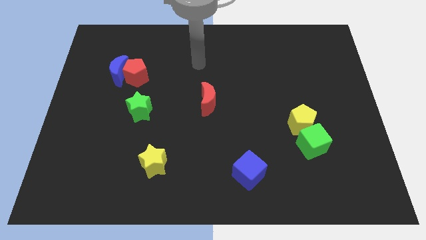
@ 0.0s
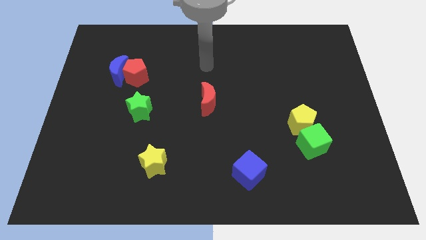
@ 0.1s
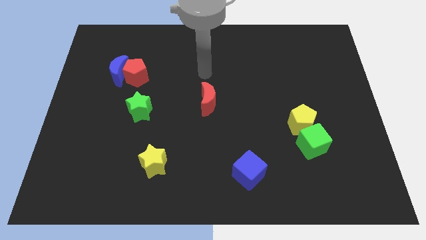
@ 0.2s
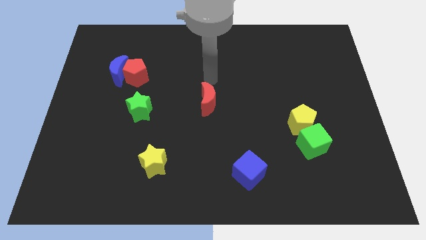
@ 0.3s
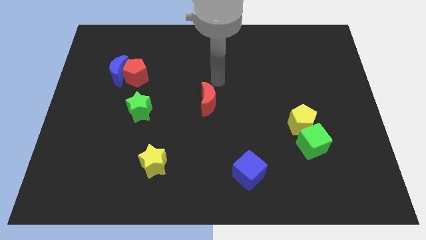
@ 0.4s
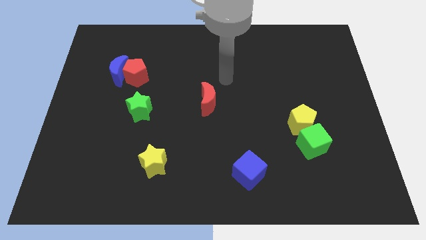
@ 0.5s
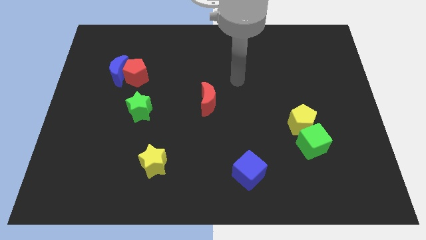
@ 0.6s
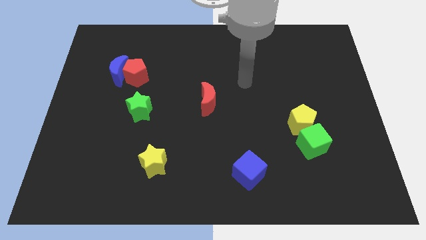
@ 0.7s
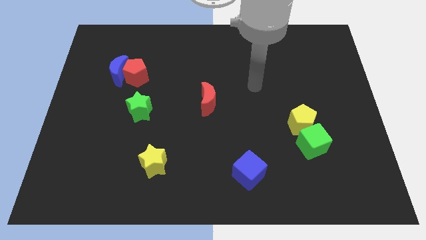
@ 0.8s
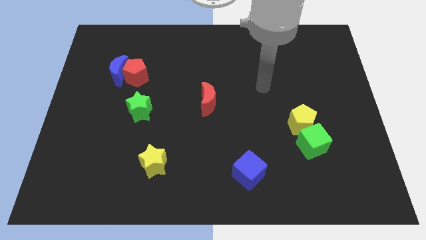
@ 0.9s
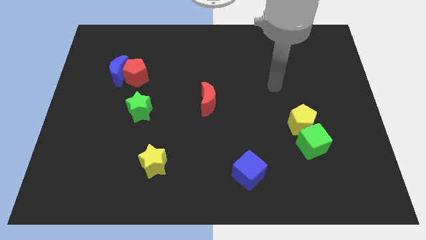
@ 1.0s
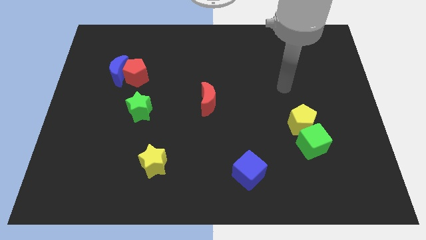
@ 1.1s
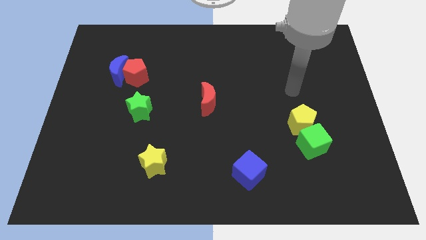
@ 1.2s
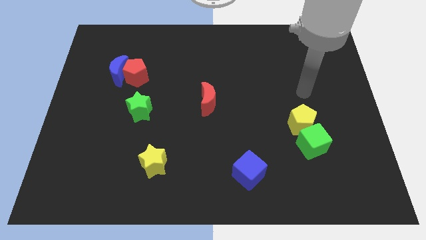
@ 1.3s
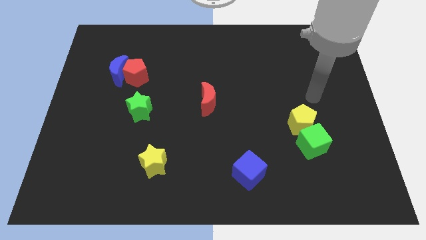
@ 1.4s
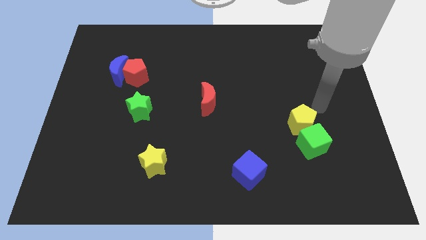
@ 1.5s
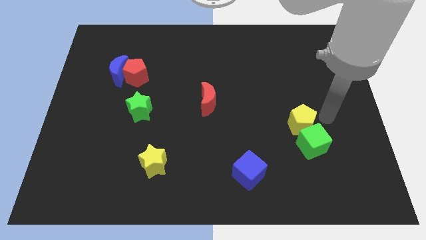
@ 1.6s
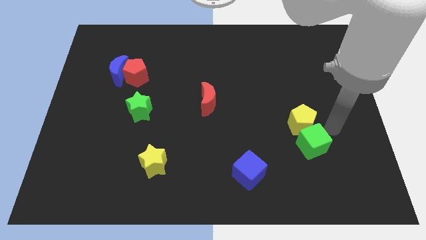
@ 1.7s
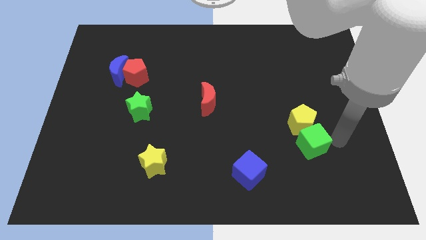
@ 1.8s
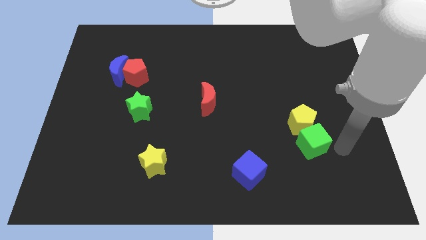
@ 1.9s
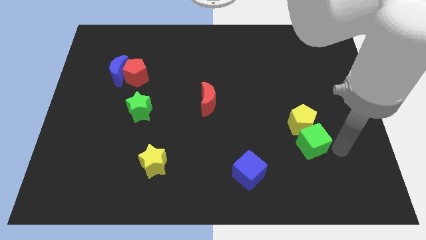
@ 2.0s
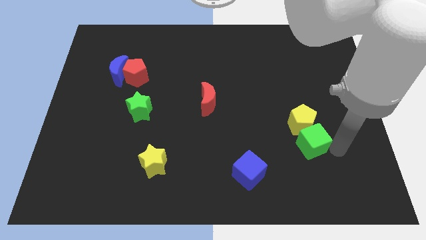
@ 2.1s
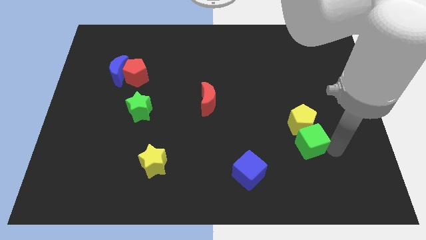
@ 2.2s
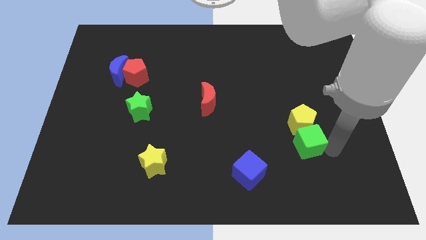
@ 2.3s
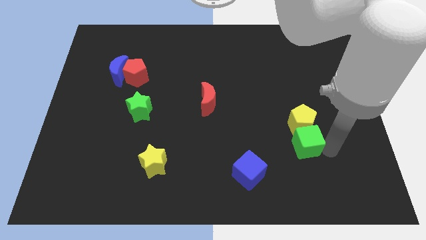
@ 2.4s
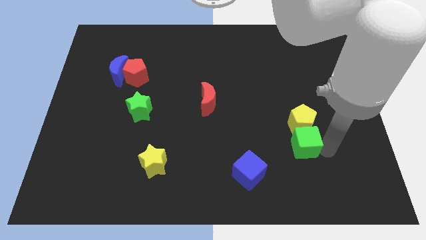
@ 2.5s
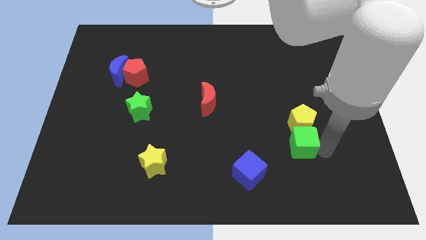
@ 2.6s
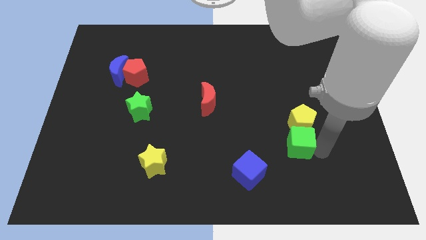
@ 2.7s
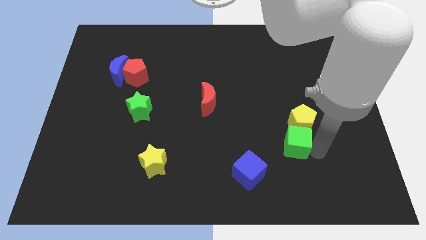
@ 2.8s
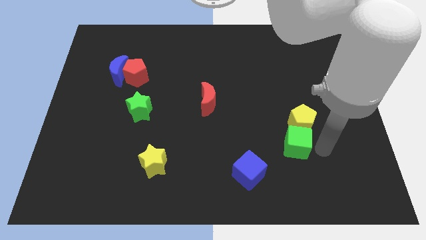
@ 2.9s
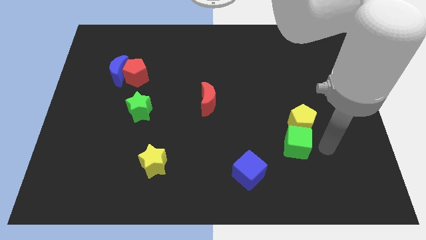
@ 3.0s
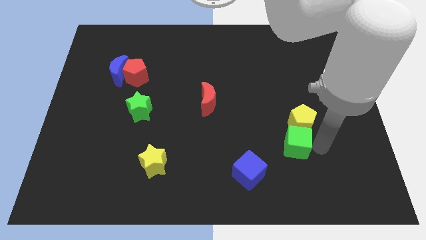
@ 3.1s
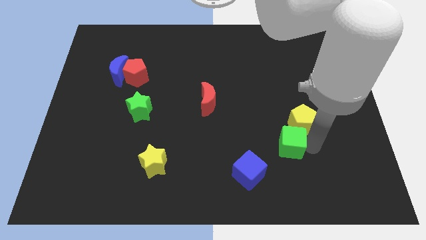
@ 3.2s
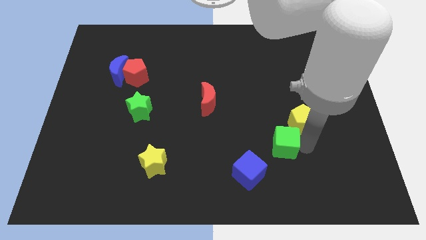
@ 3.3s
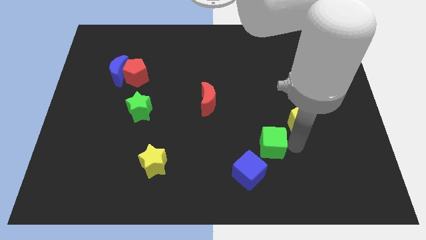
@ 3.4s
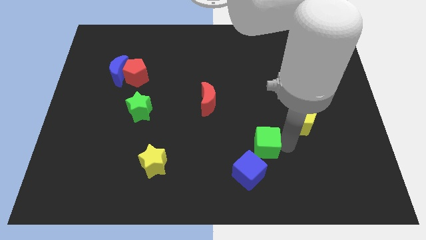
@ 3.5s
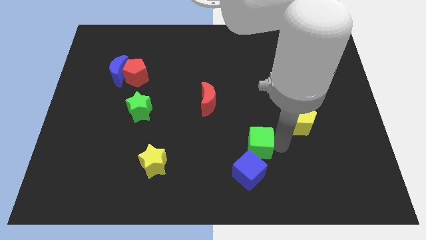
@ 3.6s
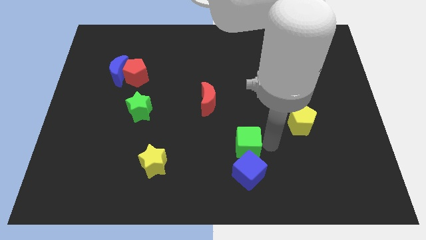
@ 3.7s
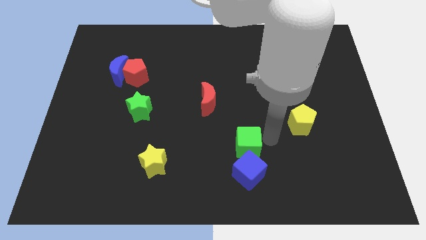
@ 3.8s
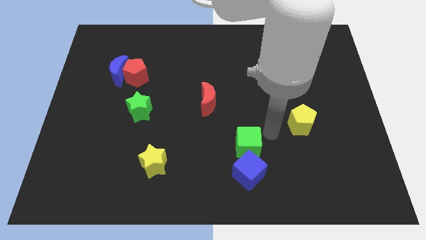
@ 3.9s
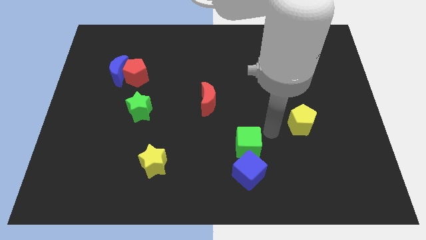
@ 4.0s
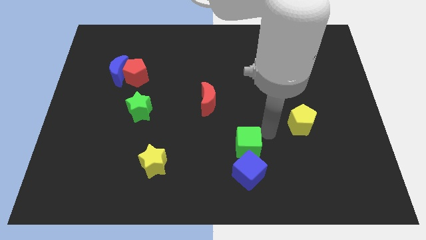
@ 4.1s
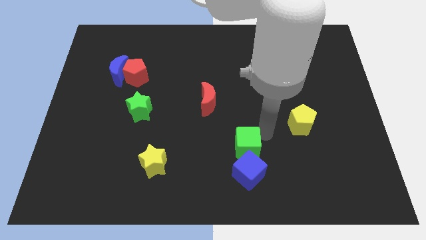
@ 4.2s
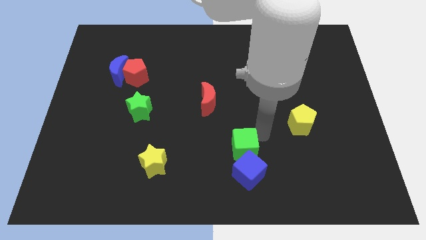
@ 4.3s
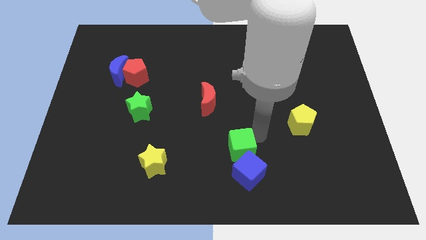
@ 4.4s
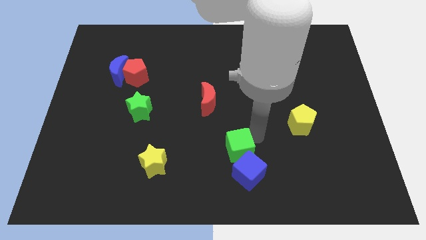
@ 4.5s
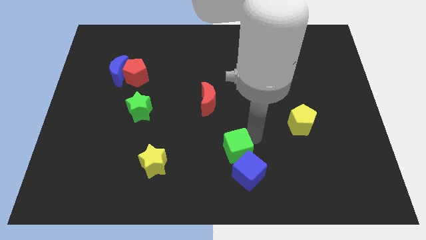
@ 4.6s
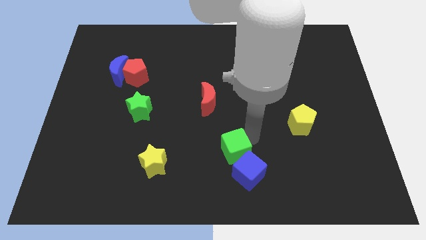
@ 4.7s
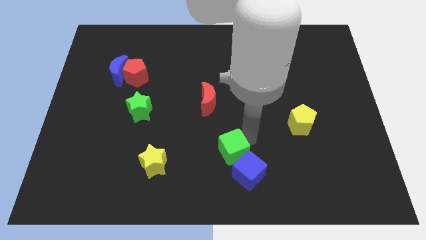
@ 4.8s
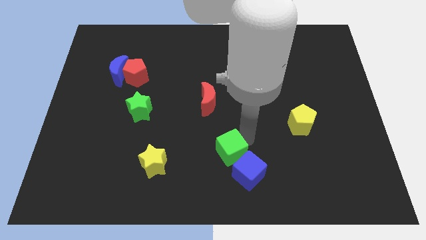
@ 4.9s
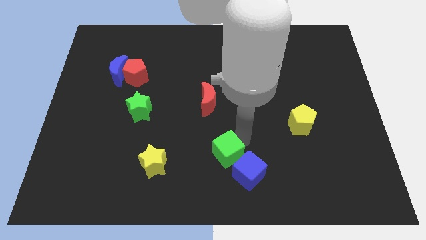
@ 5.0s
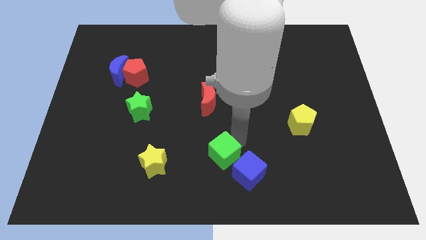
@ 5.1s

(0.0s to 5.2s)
put the green cube just left of the blue cube

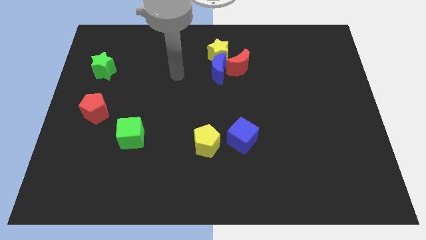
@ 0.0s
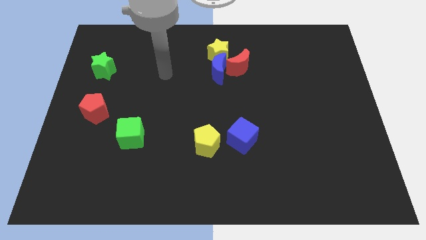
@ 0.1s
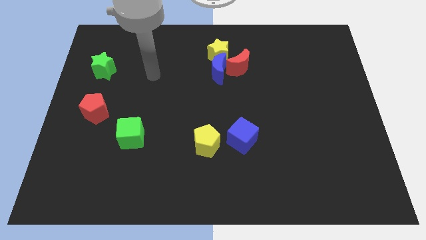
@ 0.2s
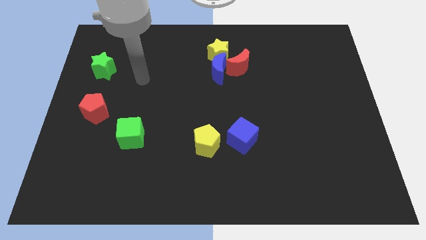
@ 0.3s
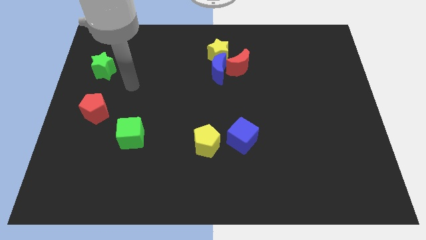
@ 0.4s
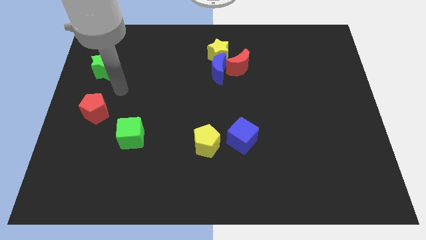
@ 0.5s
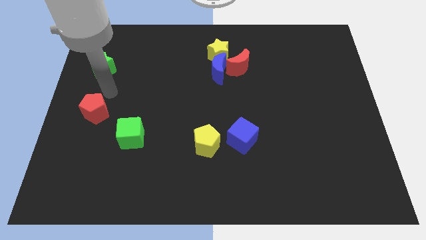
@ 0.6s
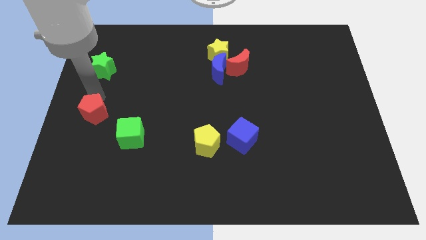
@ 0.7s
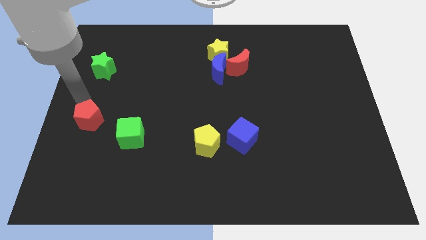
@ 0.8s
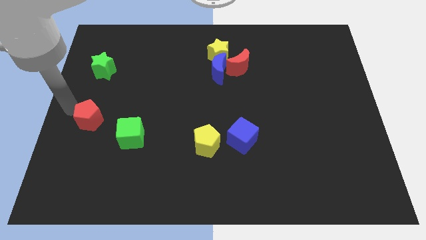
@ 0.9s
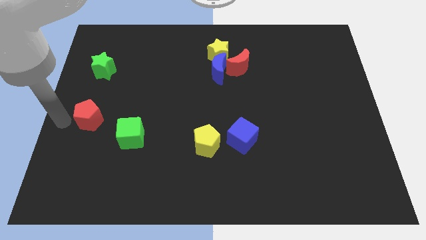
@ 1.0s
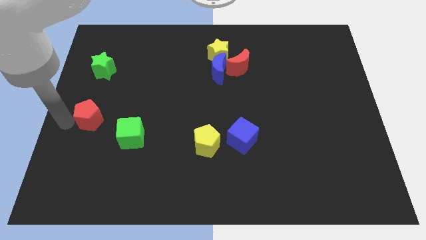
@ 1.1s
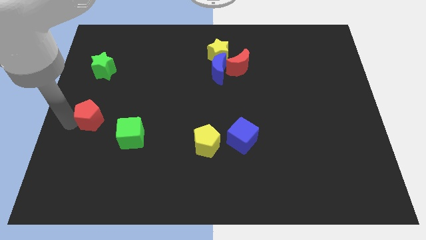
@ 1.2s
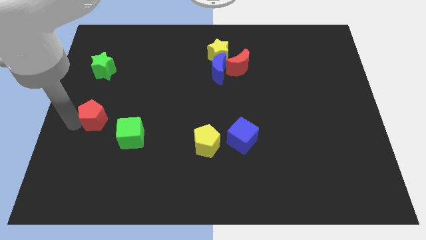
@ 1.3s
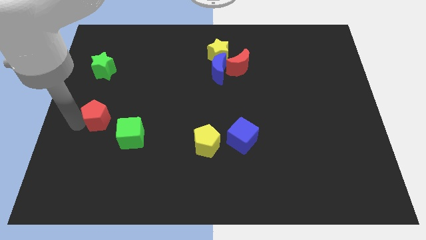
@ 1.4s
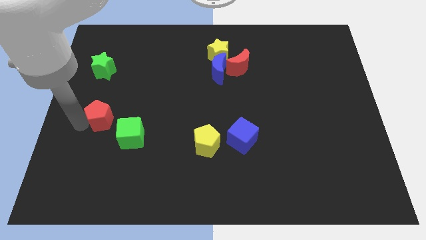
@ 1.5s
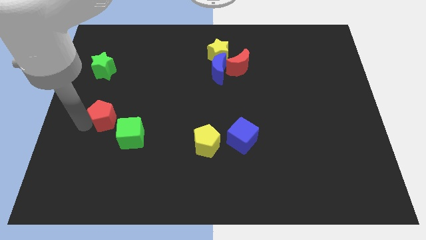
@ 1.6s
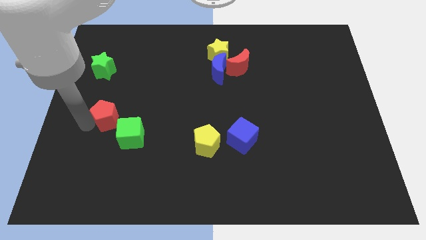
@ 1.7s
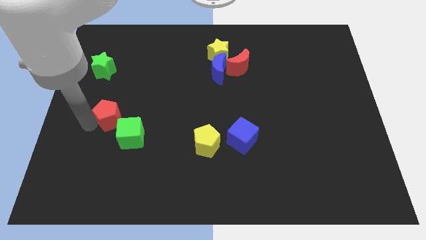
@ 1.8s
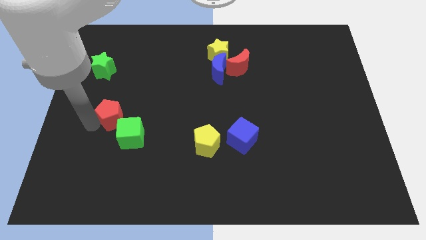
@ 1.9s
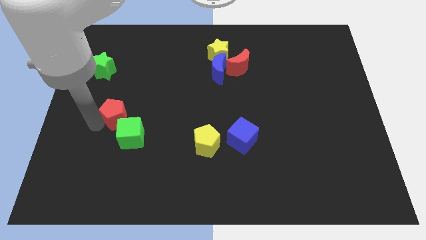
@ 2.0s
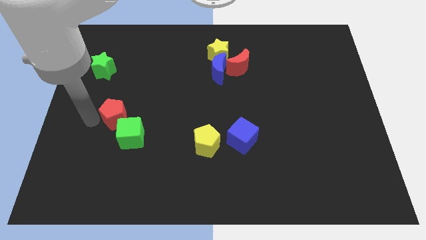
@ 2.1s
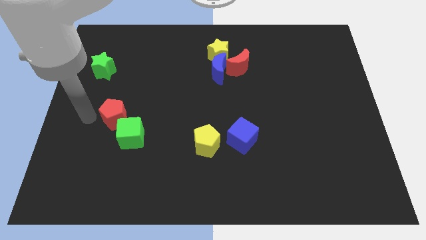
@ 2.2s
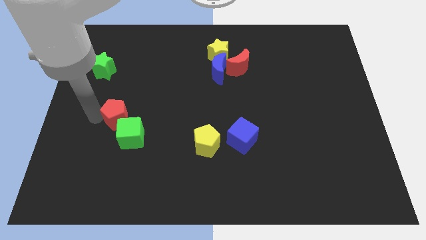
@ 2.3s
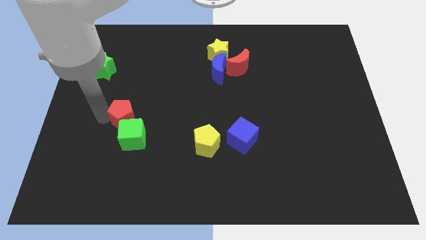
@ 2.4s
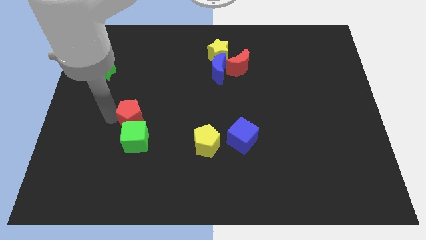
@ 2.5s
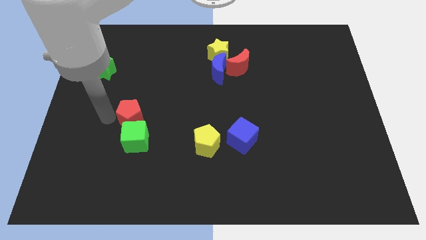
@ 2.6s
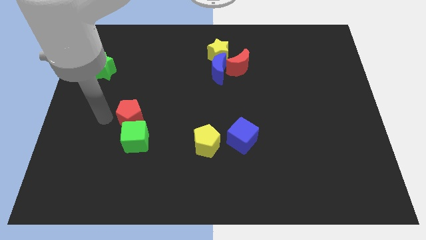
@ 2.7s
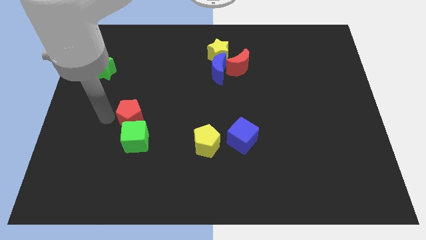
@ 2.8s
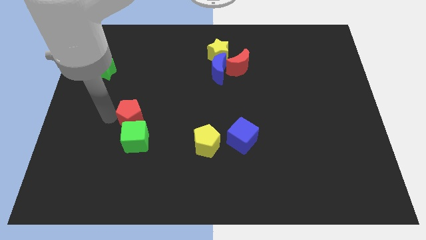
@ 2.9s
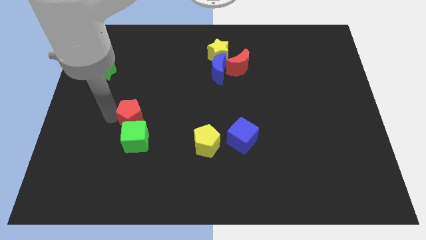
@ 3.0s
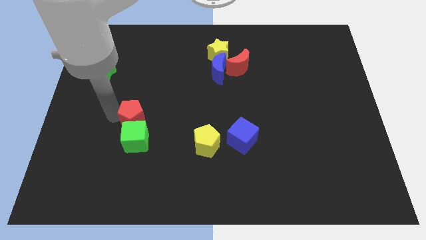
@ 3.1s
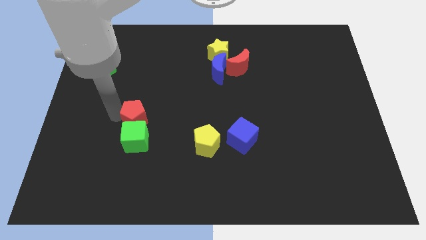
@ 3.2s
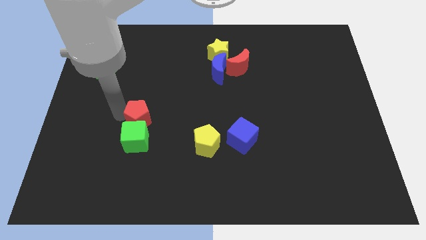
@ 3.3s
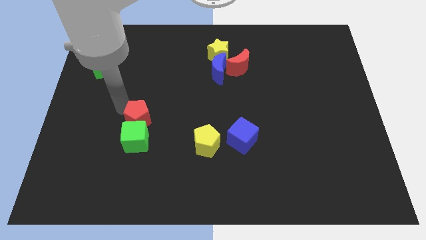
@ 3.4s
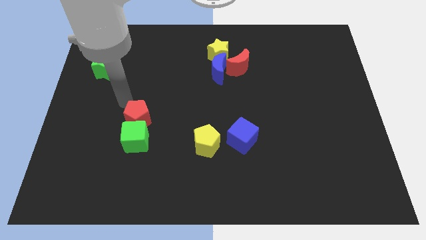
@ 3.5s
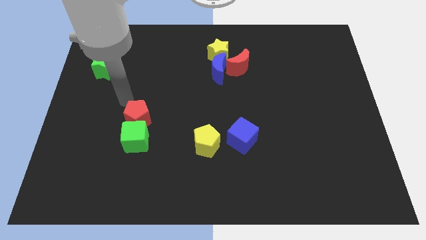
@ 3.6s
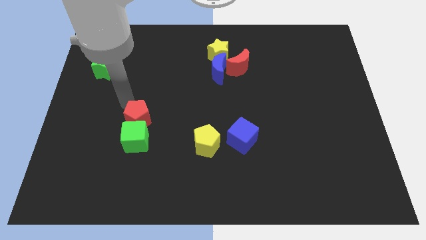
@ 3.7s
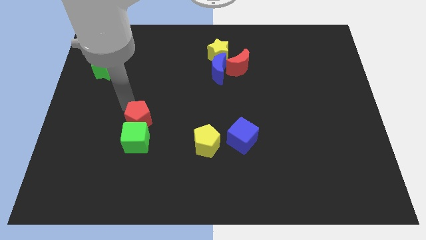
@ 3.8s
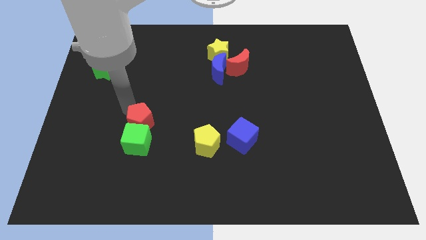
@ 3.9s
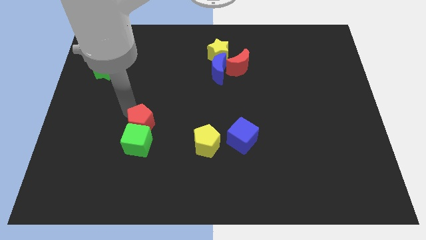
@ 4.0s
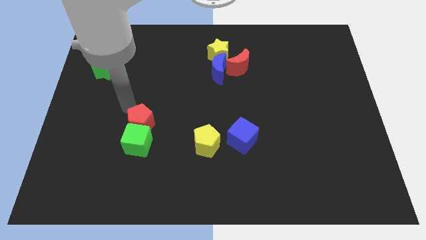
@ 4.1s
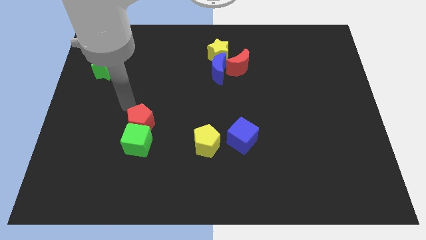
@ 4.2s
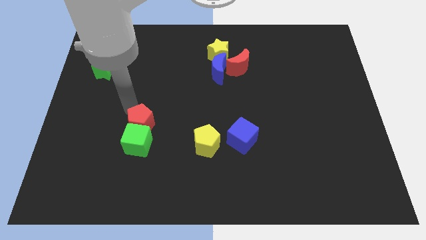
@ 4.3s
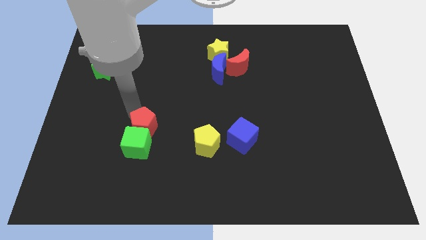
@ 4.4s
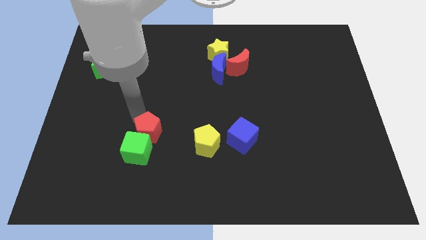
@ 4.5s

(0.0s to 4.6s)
put the red pentagon to the left side of the yellow pentagon
